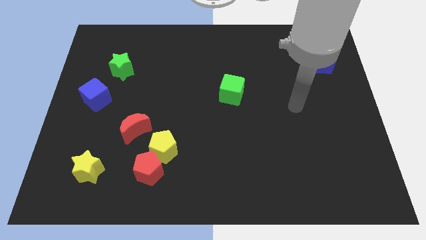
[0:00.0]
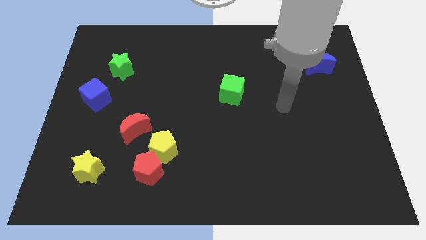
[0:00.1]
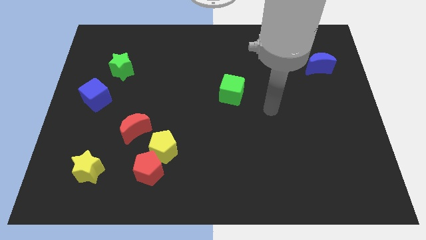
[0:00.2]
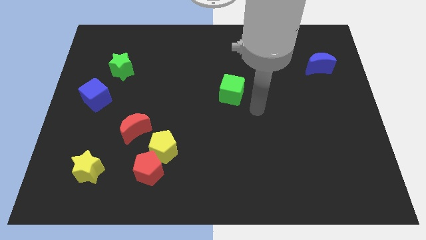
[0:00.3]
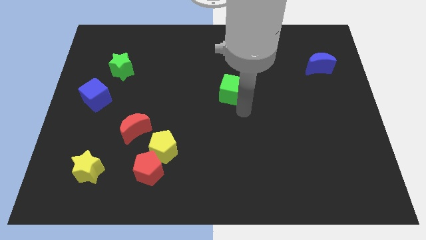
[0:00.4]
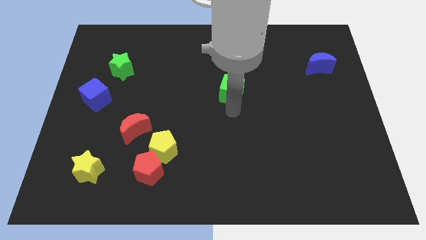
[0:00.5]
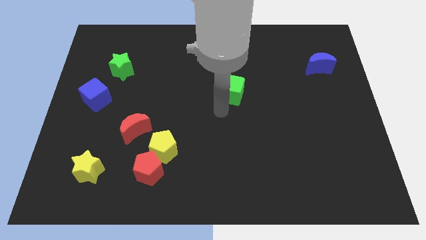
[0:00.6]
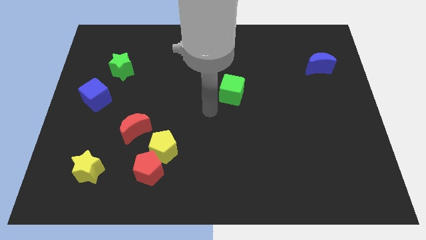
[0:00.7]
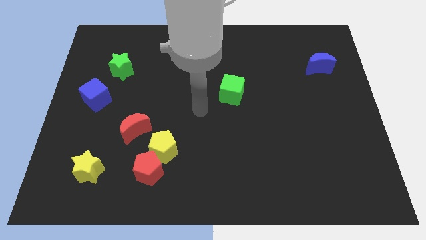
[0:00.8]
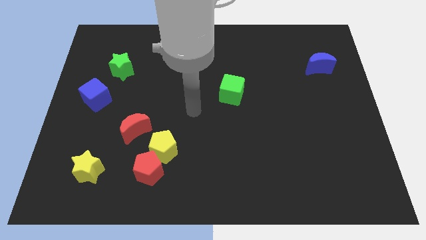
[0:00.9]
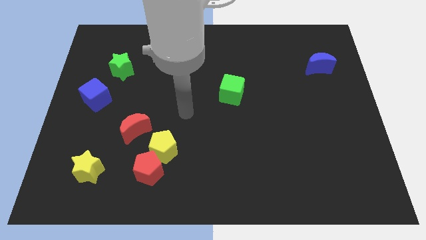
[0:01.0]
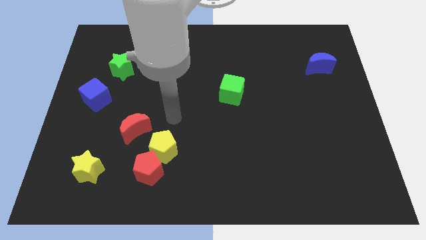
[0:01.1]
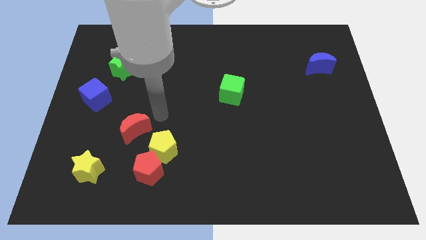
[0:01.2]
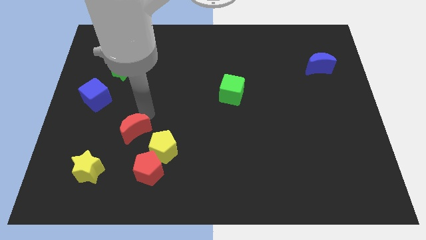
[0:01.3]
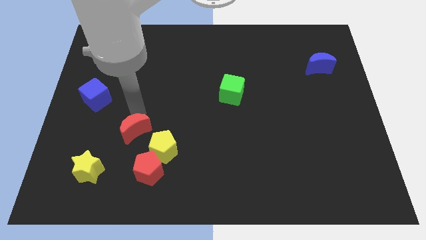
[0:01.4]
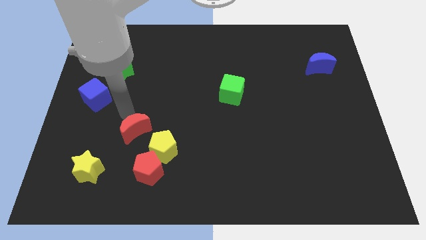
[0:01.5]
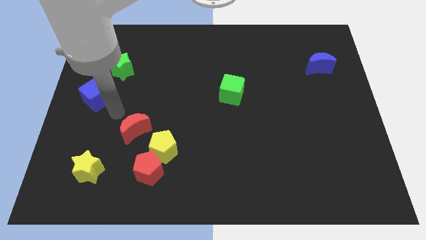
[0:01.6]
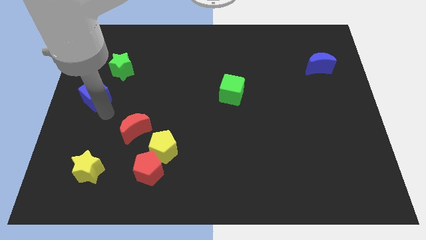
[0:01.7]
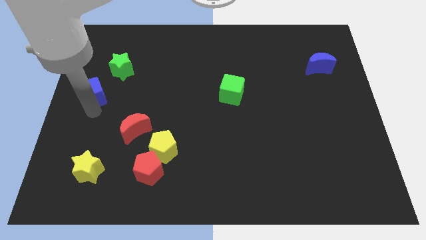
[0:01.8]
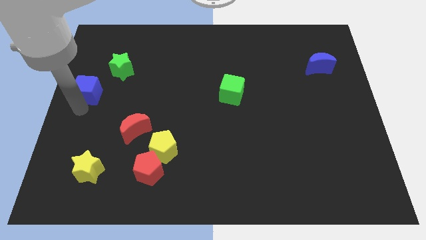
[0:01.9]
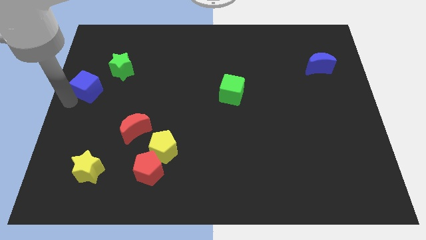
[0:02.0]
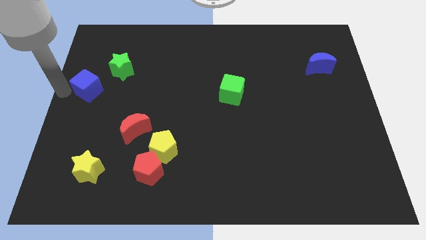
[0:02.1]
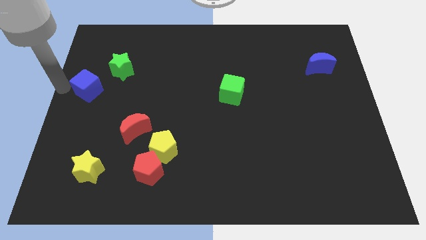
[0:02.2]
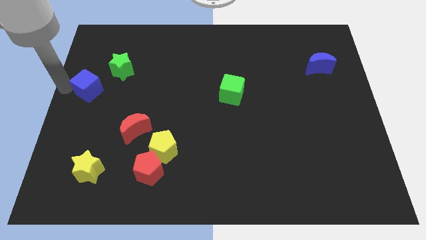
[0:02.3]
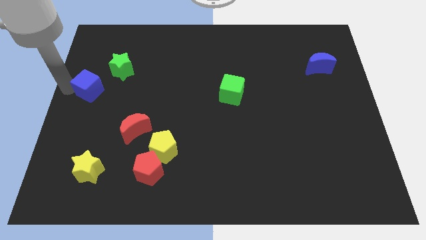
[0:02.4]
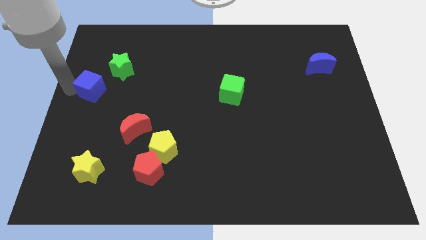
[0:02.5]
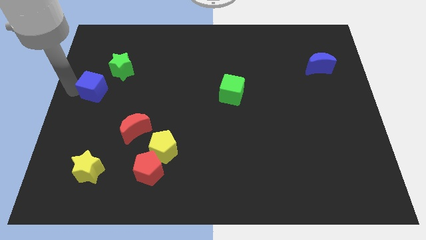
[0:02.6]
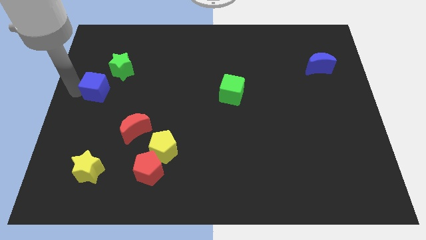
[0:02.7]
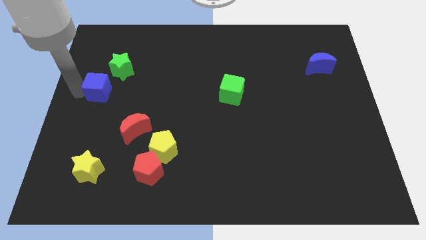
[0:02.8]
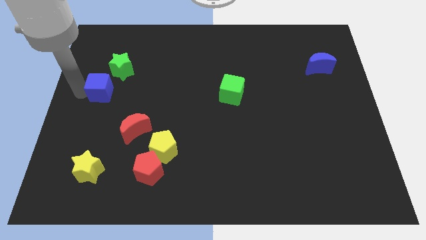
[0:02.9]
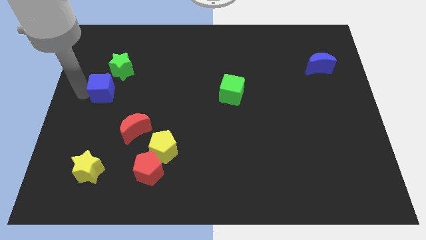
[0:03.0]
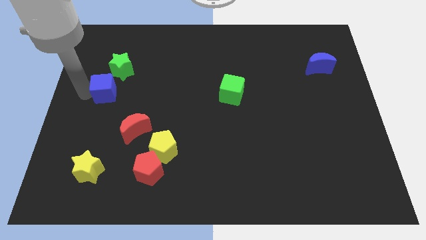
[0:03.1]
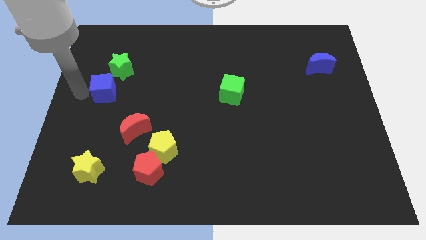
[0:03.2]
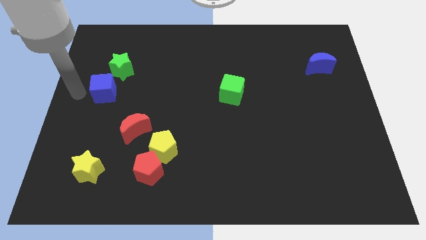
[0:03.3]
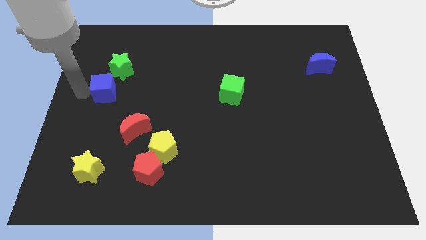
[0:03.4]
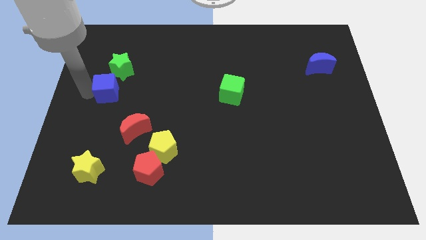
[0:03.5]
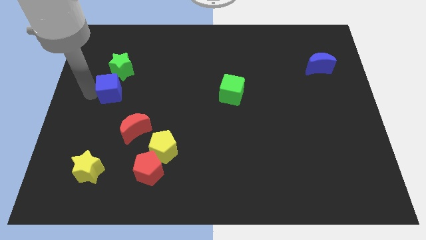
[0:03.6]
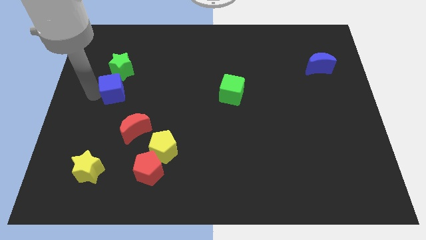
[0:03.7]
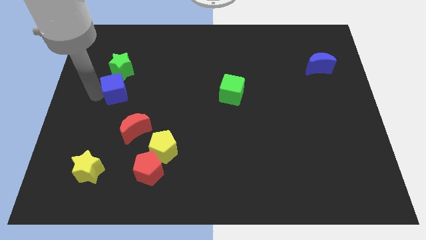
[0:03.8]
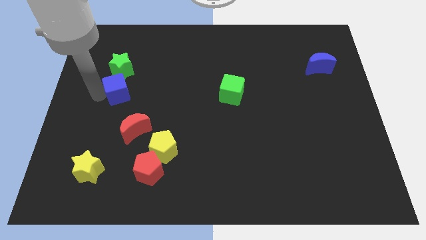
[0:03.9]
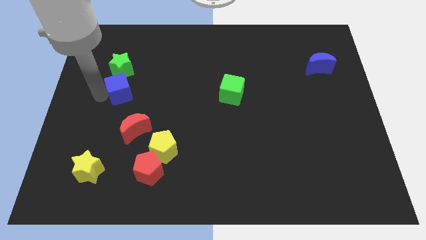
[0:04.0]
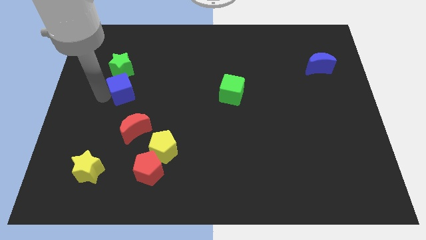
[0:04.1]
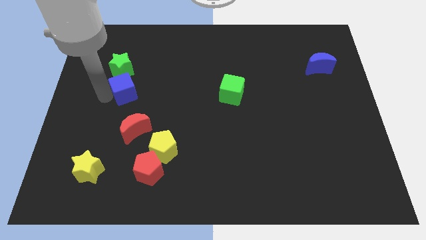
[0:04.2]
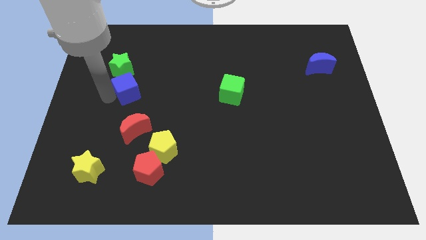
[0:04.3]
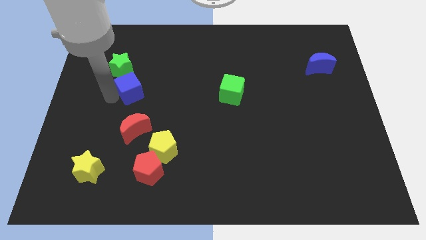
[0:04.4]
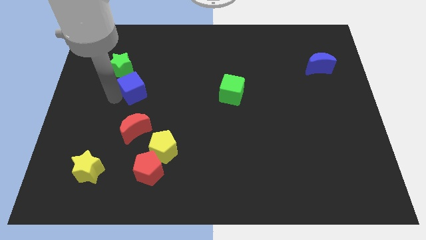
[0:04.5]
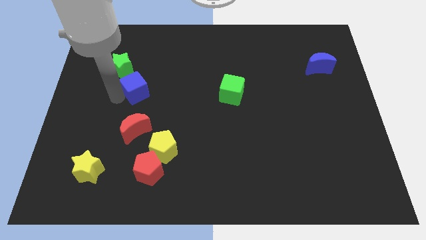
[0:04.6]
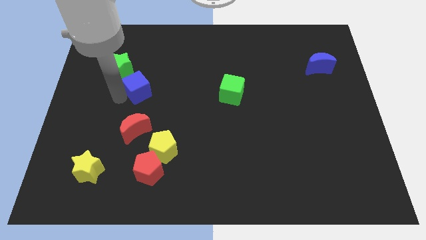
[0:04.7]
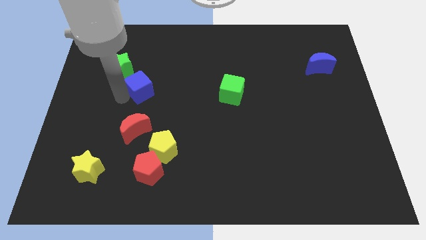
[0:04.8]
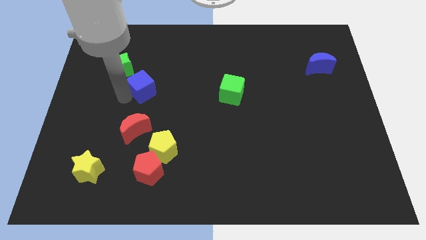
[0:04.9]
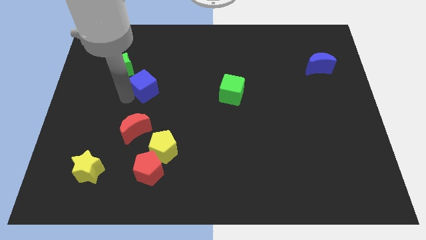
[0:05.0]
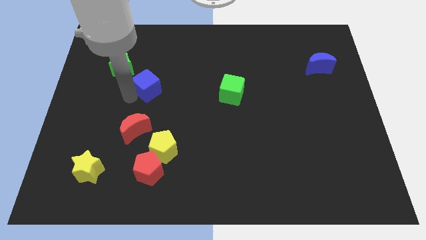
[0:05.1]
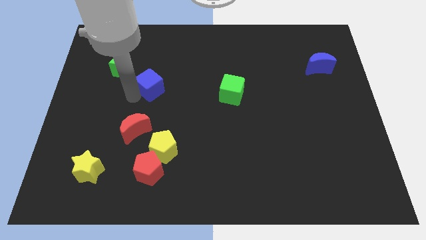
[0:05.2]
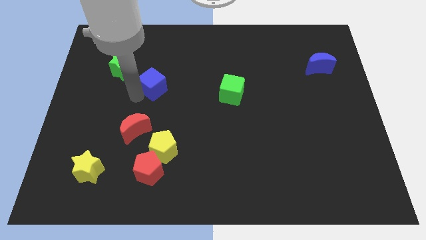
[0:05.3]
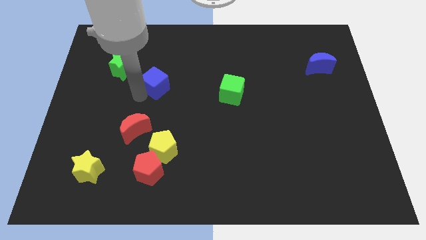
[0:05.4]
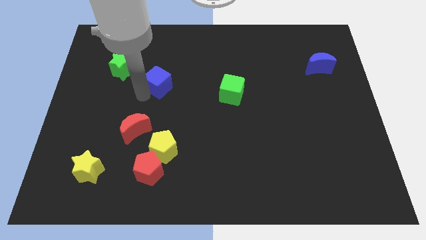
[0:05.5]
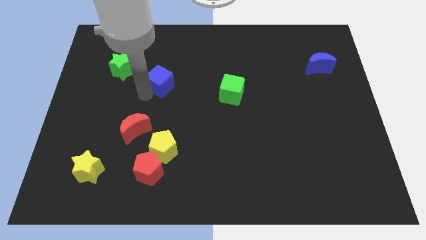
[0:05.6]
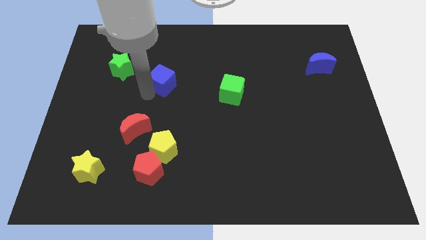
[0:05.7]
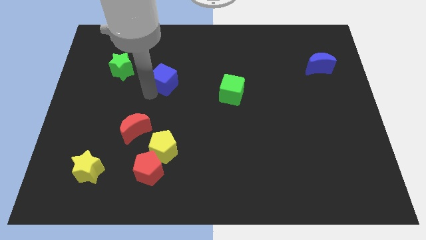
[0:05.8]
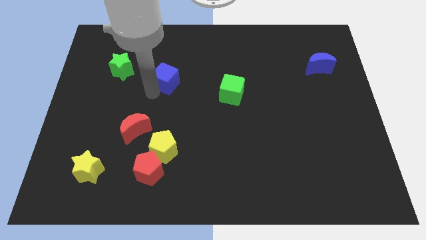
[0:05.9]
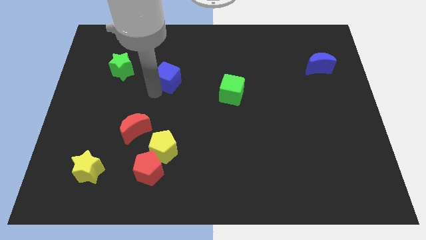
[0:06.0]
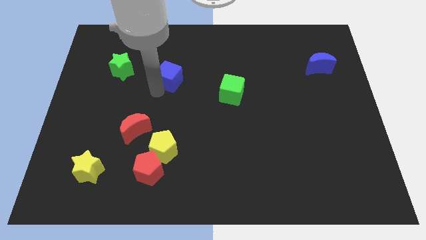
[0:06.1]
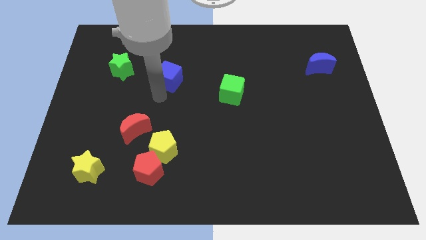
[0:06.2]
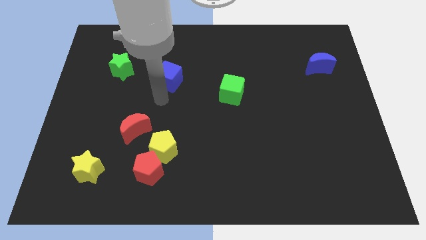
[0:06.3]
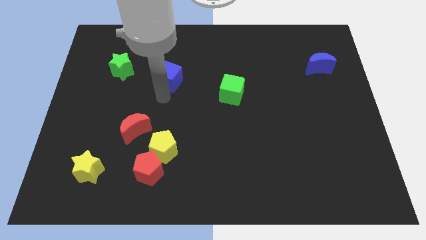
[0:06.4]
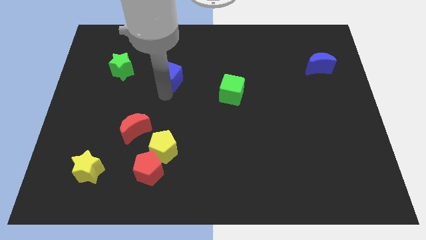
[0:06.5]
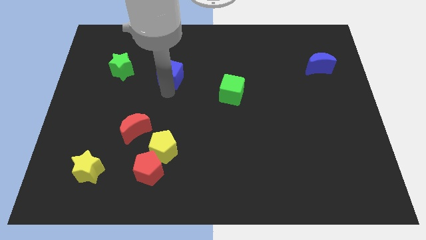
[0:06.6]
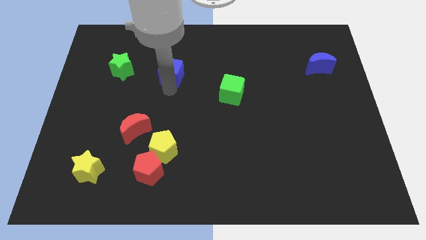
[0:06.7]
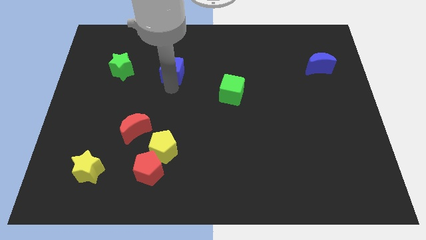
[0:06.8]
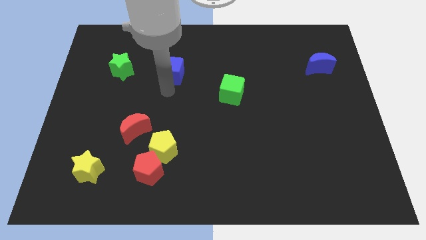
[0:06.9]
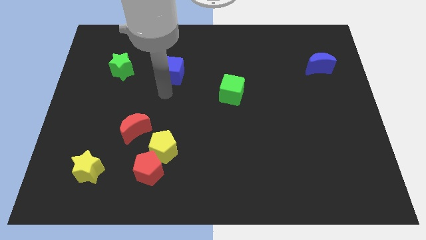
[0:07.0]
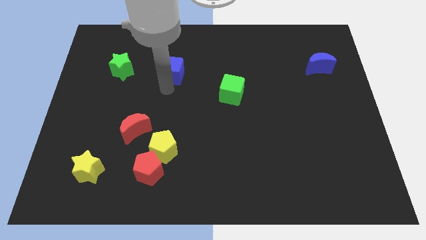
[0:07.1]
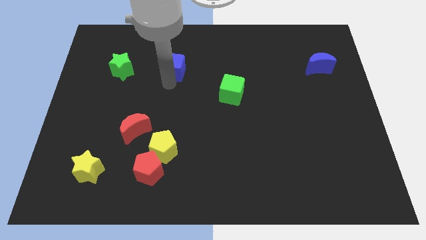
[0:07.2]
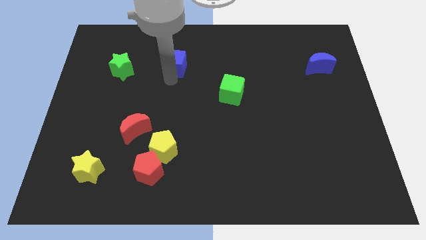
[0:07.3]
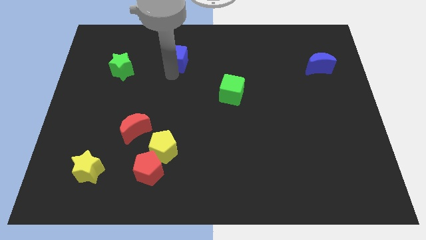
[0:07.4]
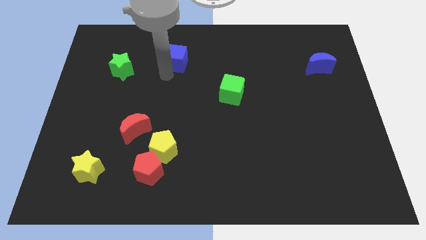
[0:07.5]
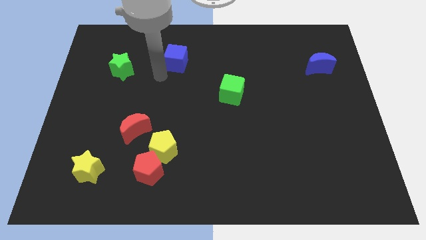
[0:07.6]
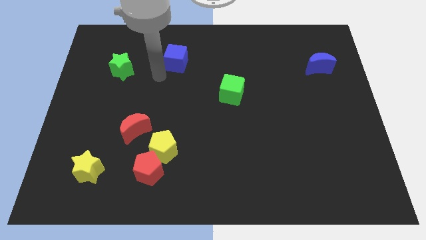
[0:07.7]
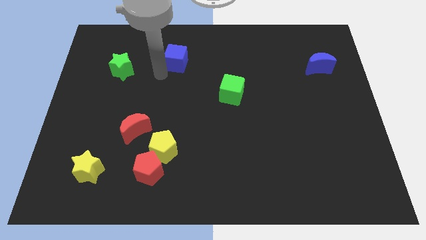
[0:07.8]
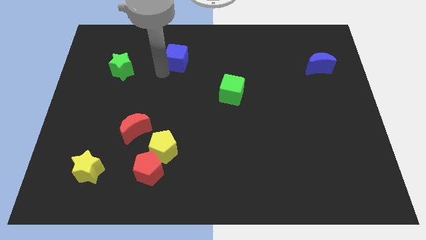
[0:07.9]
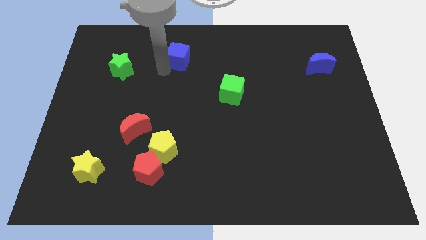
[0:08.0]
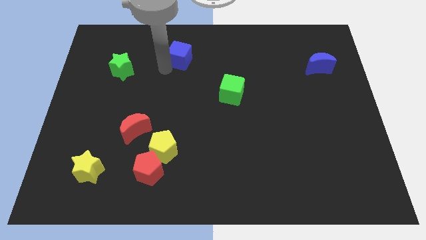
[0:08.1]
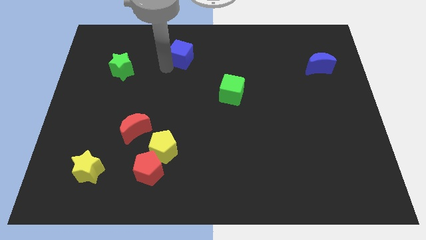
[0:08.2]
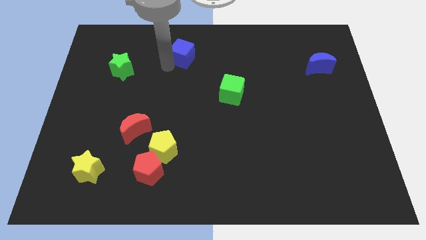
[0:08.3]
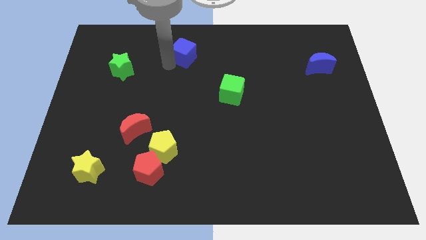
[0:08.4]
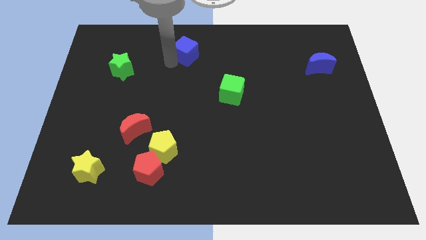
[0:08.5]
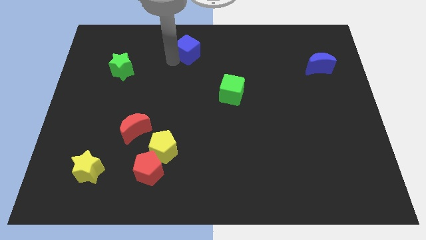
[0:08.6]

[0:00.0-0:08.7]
push the blue cube to the top
